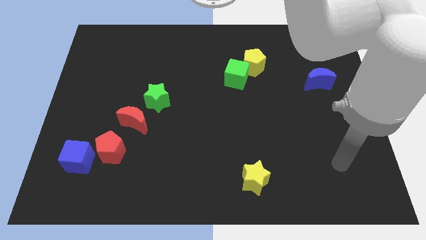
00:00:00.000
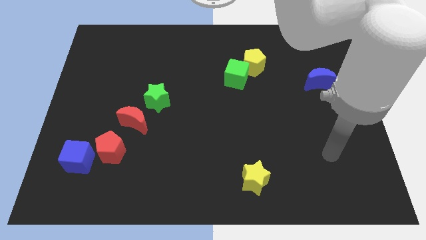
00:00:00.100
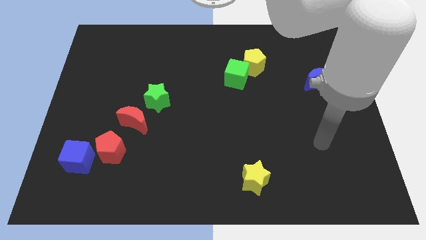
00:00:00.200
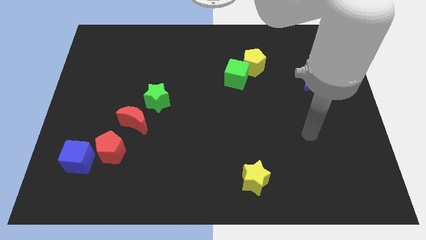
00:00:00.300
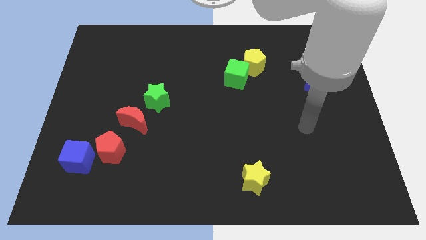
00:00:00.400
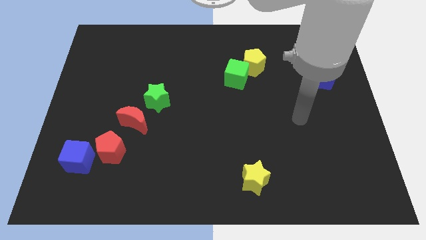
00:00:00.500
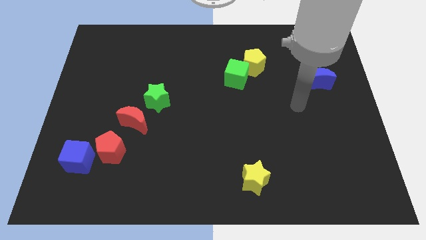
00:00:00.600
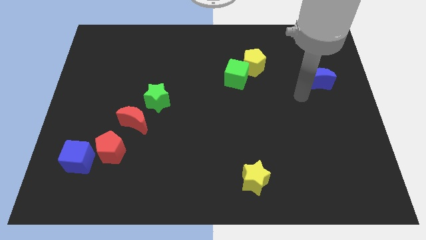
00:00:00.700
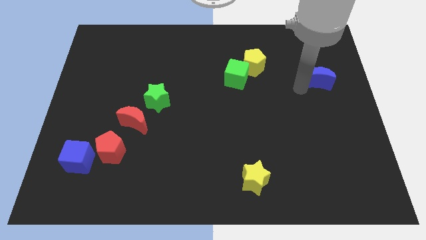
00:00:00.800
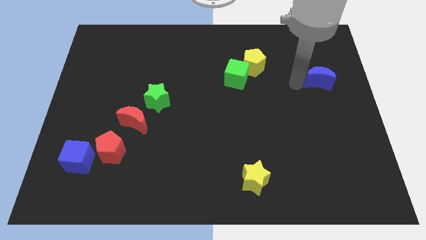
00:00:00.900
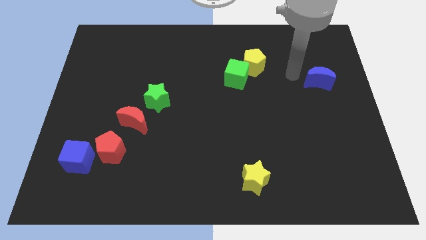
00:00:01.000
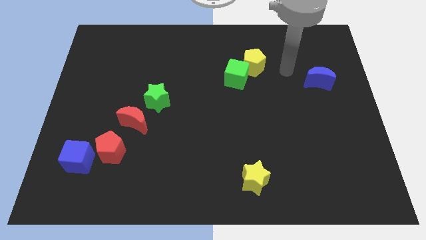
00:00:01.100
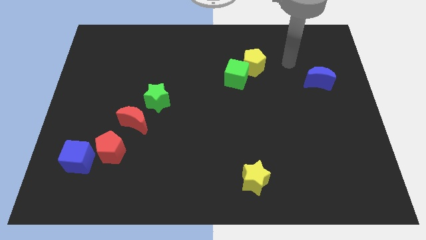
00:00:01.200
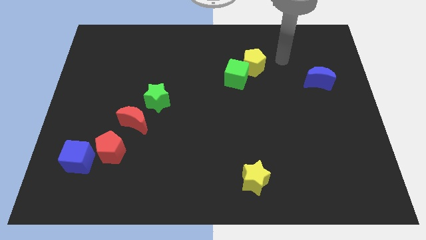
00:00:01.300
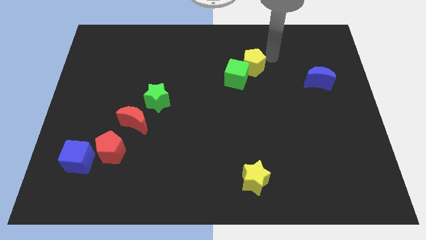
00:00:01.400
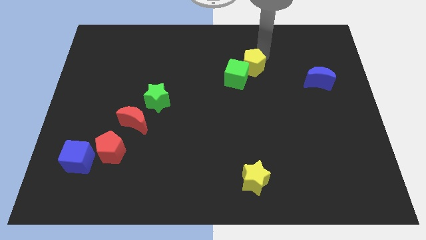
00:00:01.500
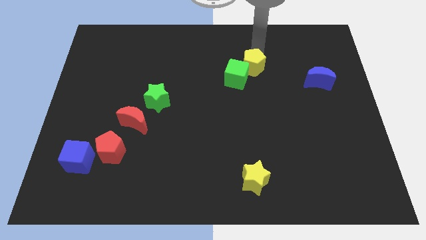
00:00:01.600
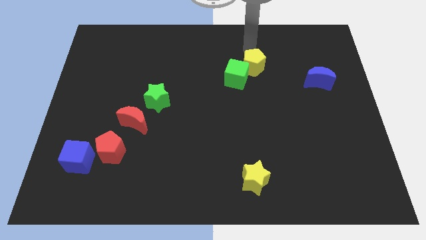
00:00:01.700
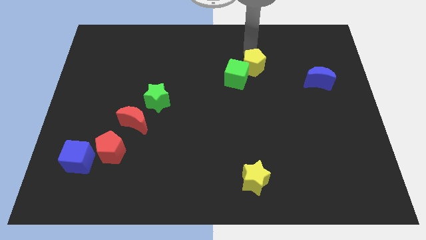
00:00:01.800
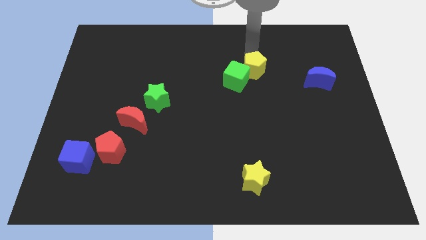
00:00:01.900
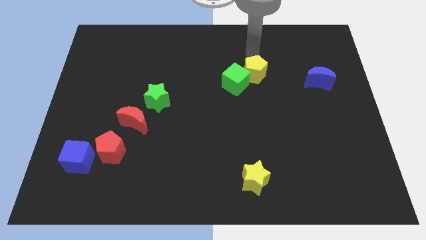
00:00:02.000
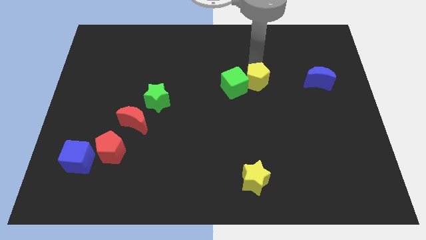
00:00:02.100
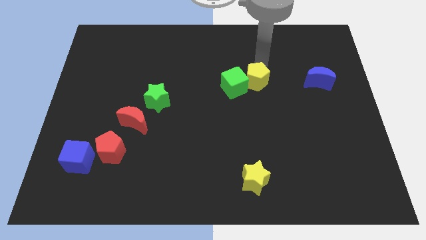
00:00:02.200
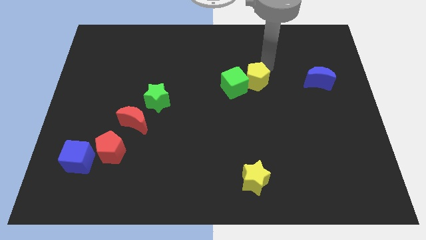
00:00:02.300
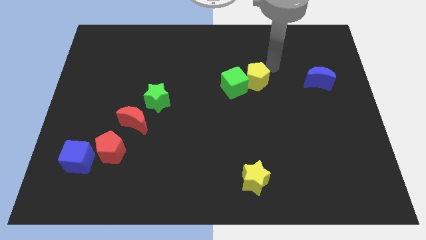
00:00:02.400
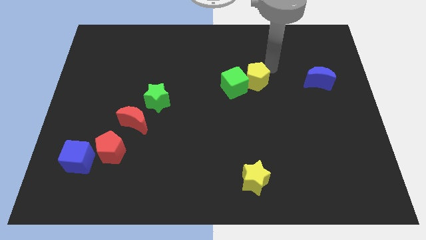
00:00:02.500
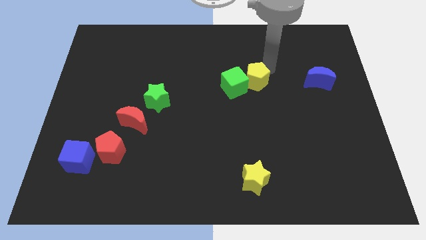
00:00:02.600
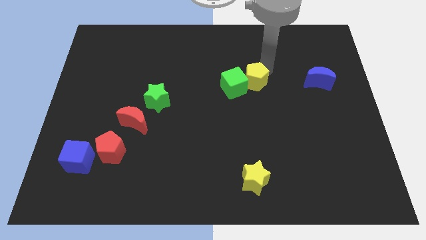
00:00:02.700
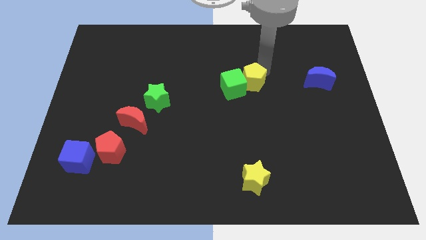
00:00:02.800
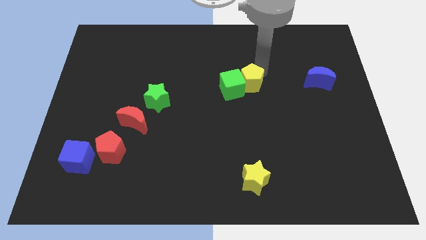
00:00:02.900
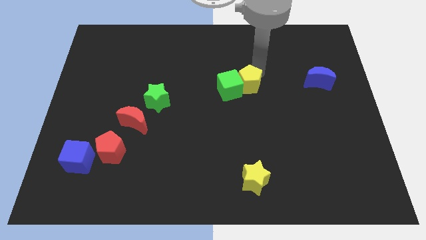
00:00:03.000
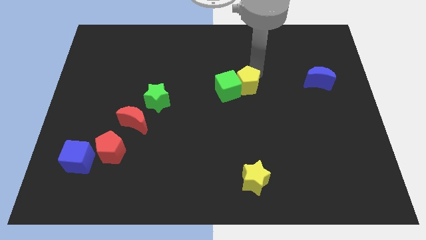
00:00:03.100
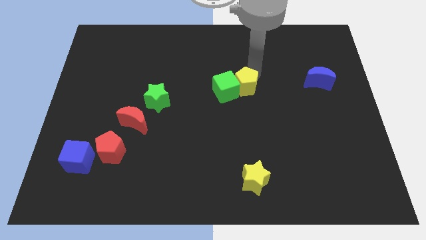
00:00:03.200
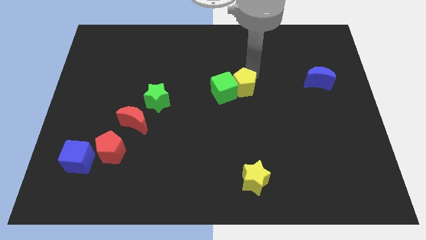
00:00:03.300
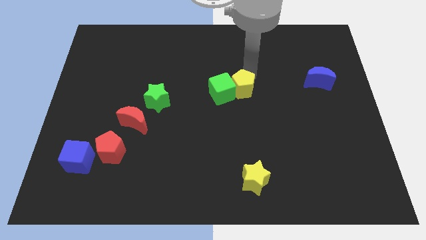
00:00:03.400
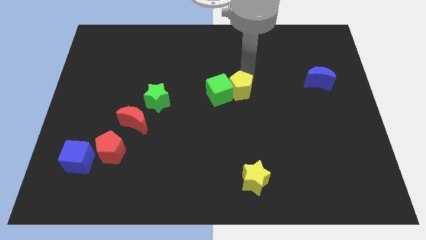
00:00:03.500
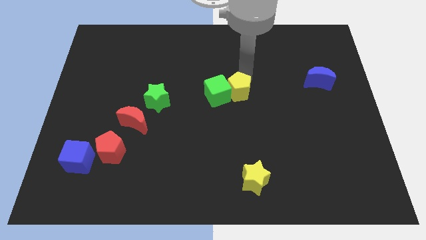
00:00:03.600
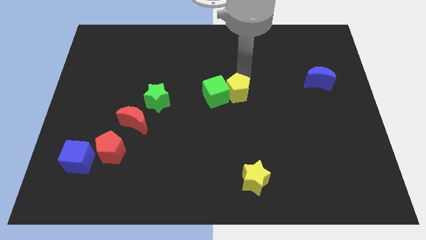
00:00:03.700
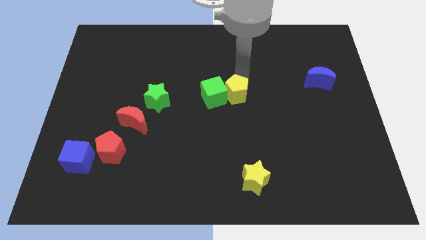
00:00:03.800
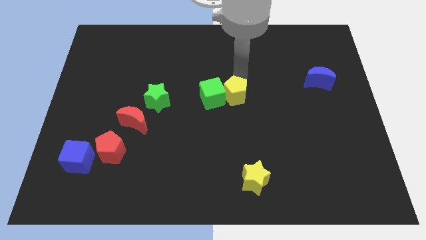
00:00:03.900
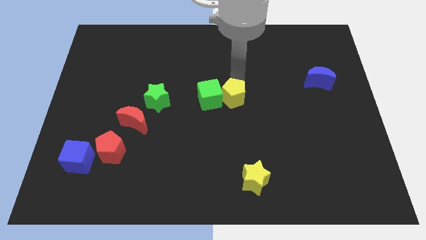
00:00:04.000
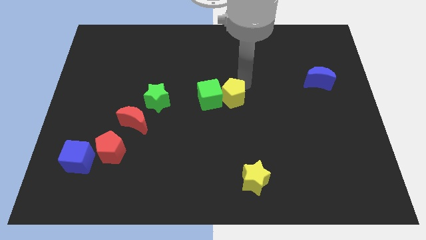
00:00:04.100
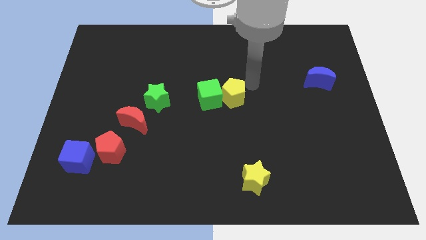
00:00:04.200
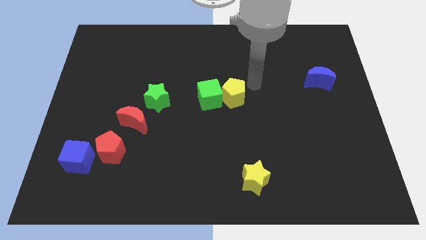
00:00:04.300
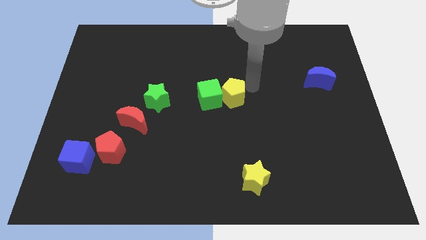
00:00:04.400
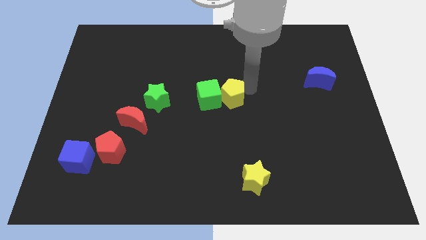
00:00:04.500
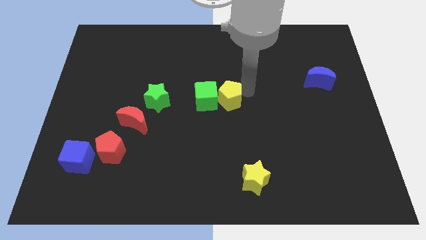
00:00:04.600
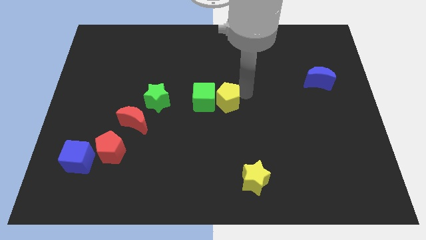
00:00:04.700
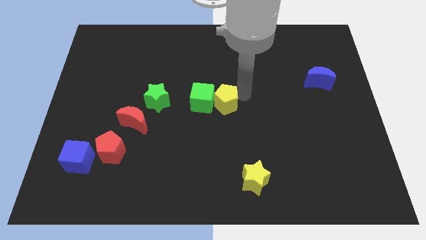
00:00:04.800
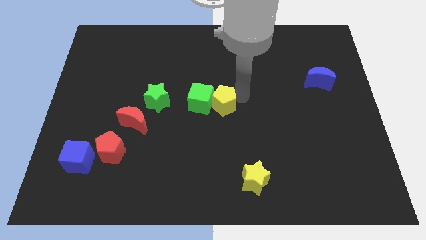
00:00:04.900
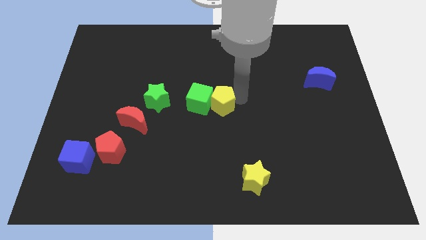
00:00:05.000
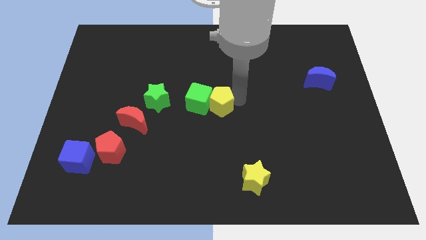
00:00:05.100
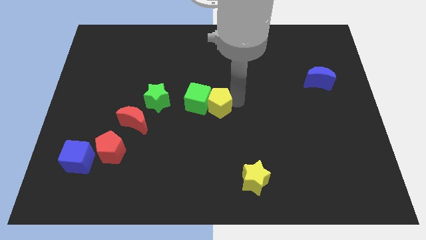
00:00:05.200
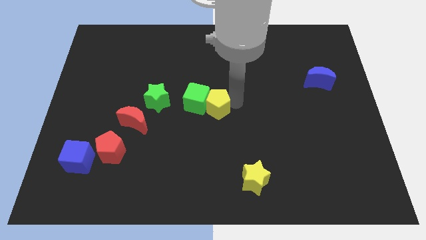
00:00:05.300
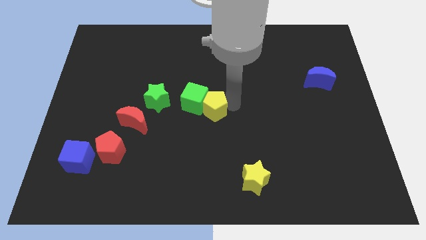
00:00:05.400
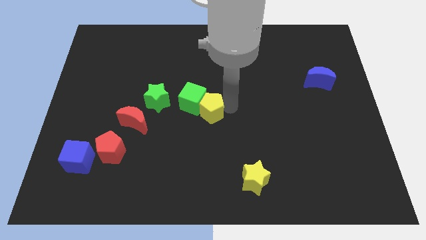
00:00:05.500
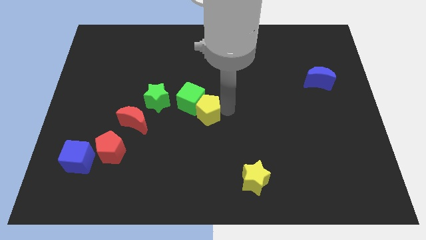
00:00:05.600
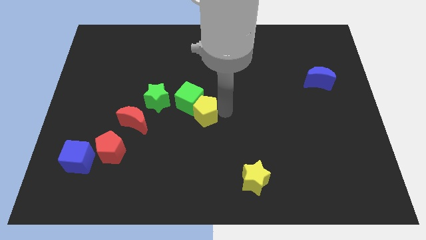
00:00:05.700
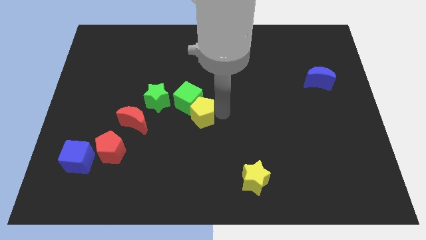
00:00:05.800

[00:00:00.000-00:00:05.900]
move the yellow pentagon to the right of the red moon
